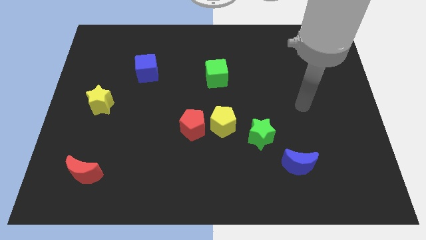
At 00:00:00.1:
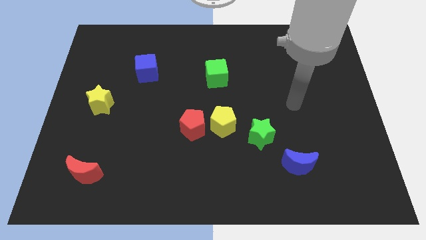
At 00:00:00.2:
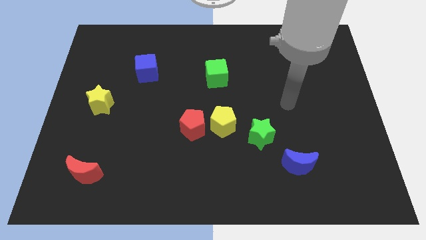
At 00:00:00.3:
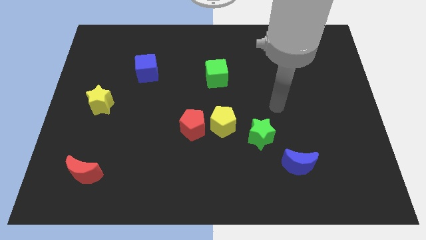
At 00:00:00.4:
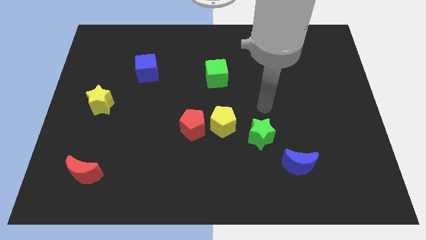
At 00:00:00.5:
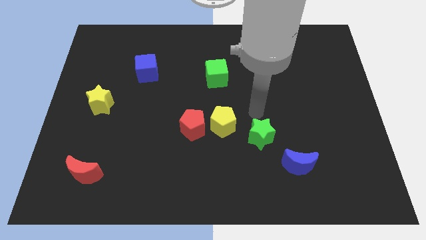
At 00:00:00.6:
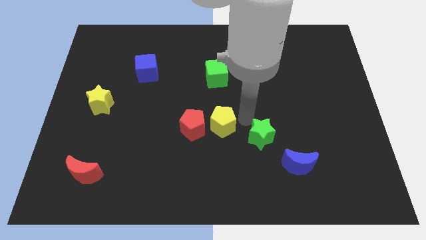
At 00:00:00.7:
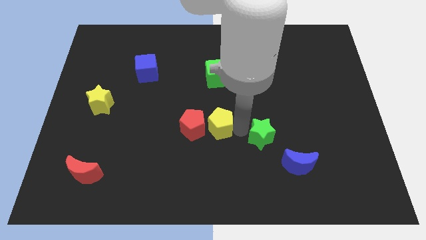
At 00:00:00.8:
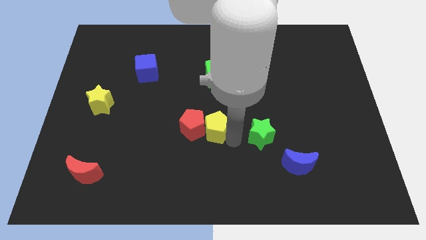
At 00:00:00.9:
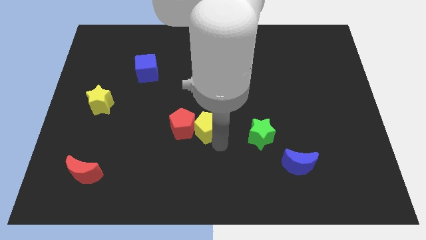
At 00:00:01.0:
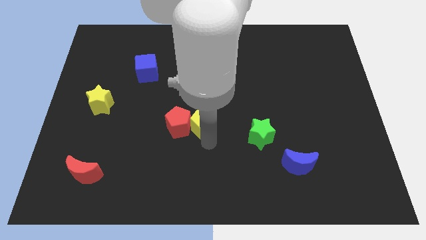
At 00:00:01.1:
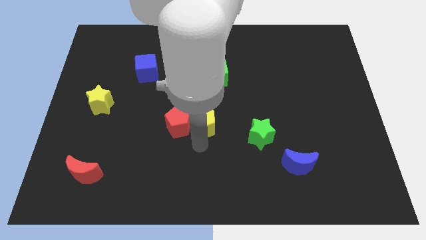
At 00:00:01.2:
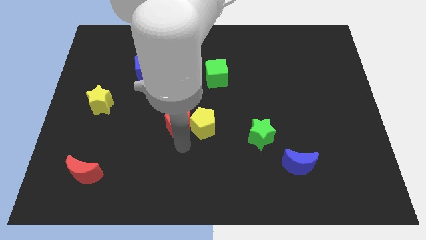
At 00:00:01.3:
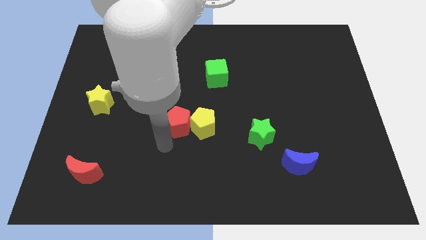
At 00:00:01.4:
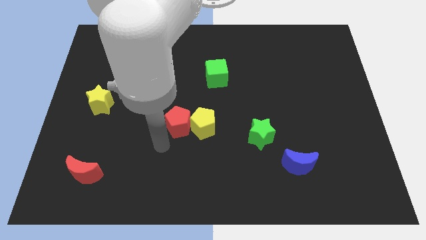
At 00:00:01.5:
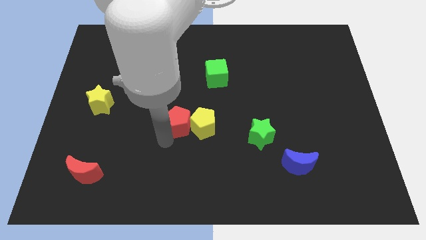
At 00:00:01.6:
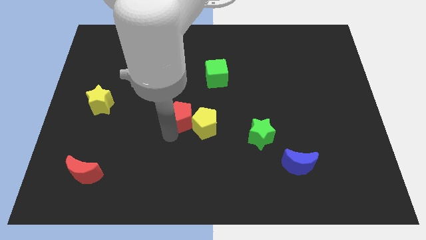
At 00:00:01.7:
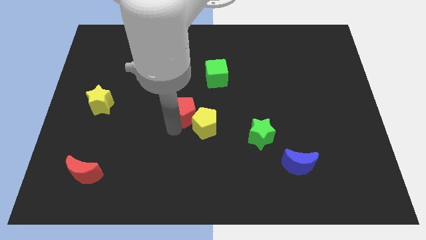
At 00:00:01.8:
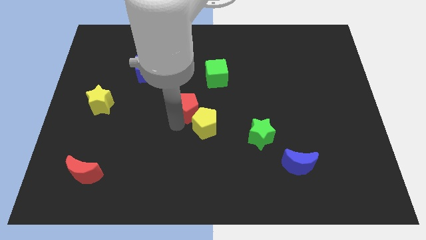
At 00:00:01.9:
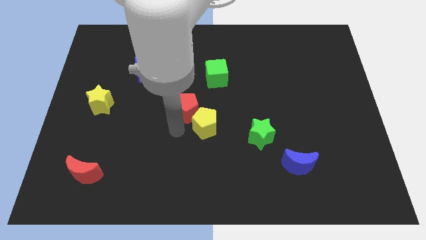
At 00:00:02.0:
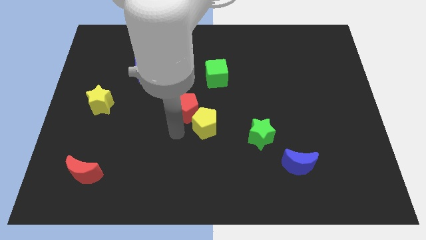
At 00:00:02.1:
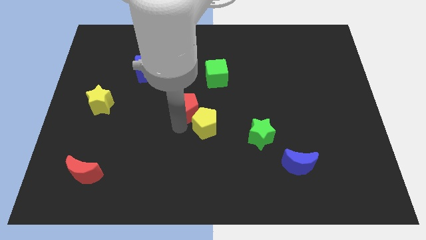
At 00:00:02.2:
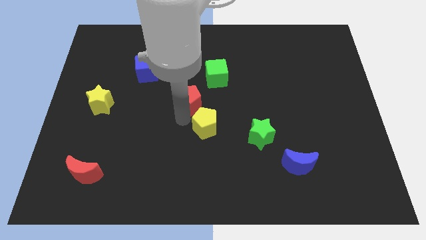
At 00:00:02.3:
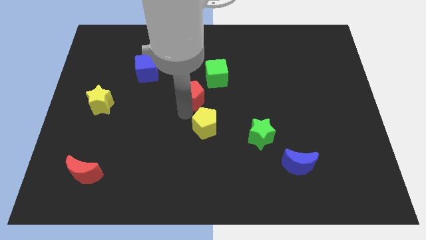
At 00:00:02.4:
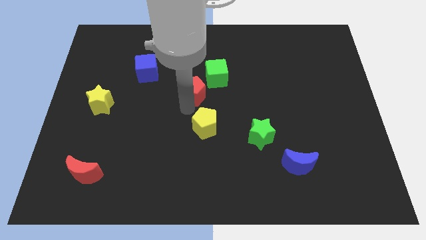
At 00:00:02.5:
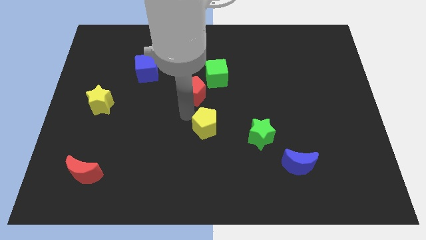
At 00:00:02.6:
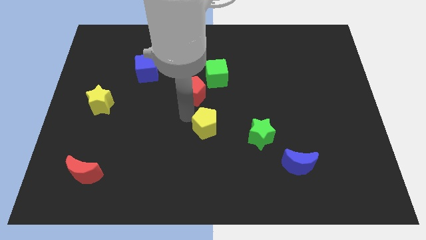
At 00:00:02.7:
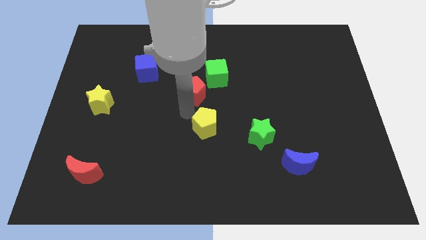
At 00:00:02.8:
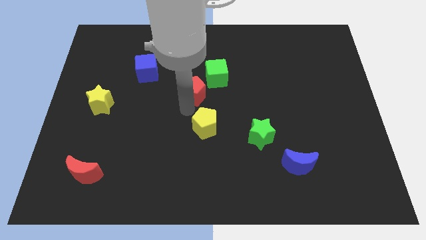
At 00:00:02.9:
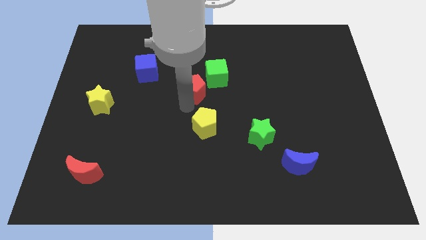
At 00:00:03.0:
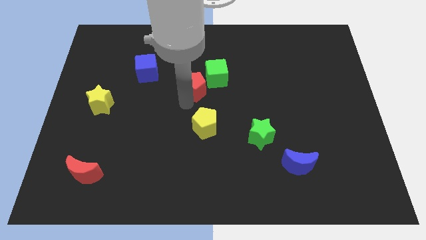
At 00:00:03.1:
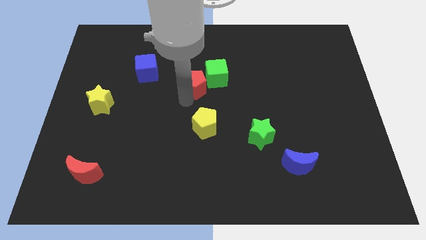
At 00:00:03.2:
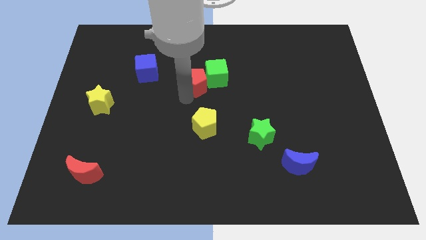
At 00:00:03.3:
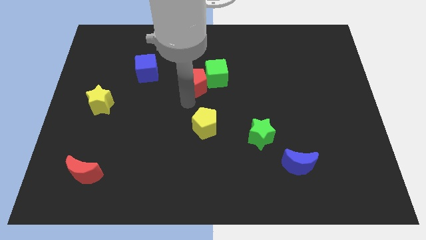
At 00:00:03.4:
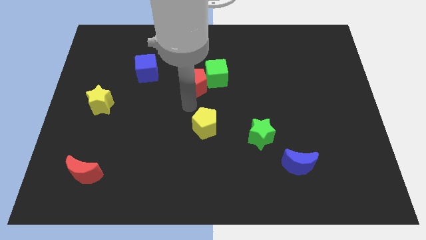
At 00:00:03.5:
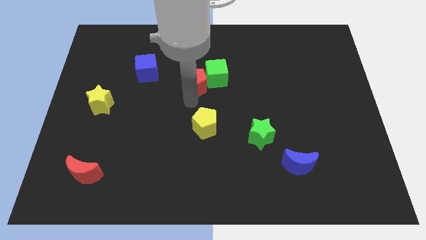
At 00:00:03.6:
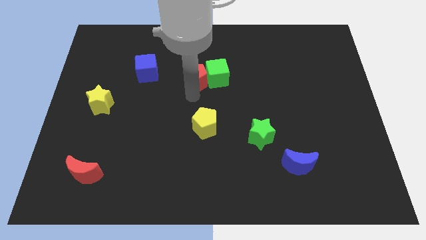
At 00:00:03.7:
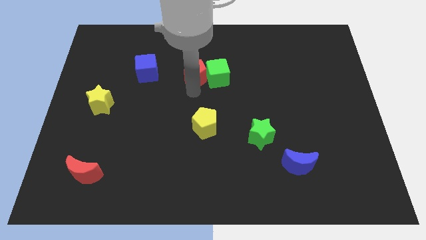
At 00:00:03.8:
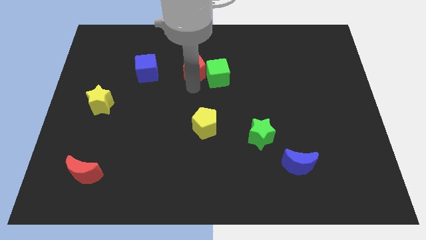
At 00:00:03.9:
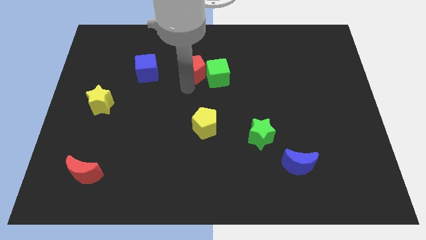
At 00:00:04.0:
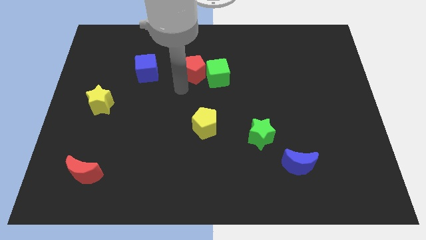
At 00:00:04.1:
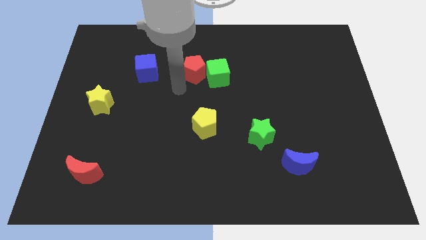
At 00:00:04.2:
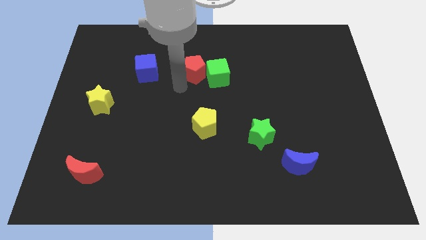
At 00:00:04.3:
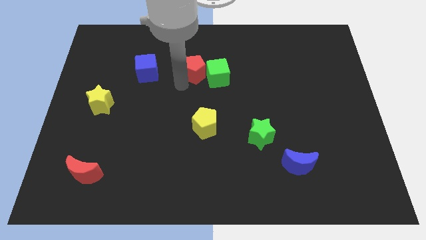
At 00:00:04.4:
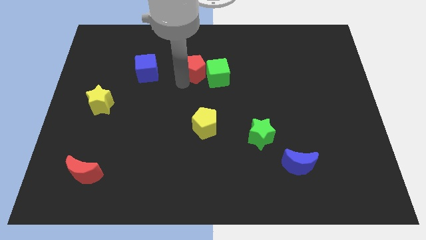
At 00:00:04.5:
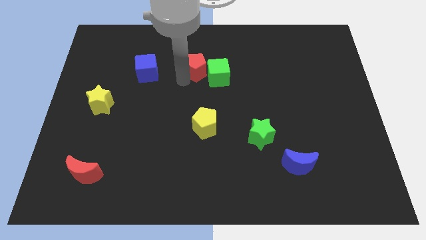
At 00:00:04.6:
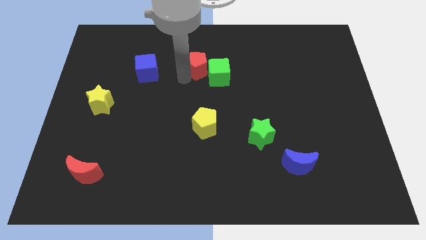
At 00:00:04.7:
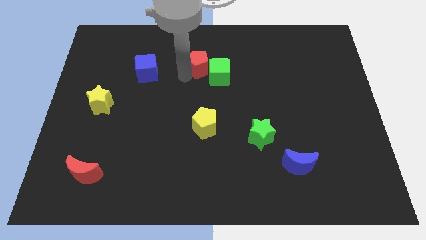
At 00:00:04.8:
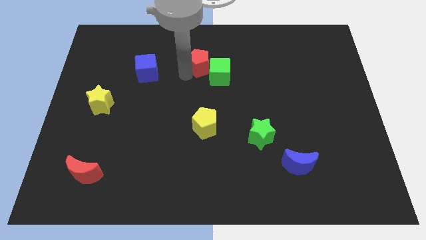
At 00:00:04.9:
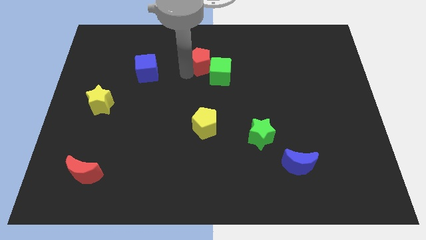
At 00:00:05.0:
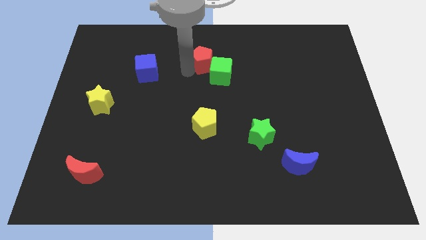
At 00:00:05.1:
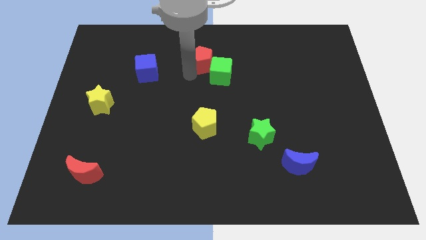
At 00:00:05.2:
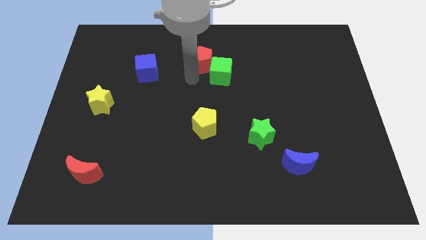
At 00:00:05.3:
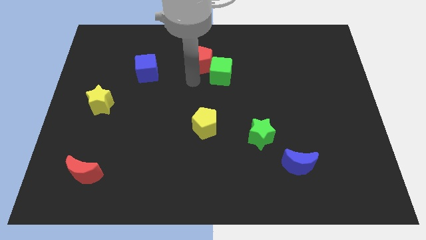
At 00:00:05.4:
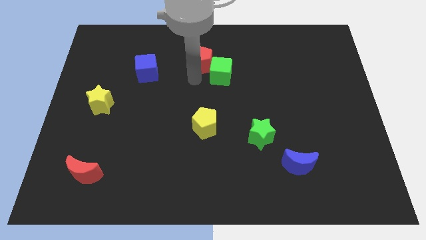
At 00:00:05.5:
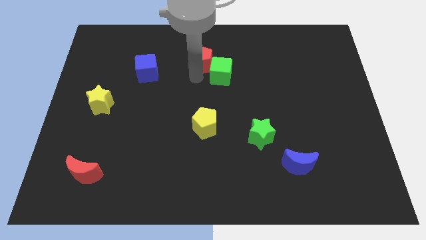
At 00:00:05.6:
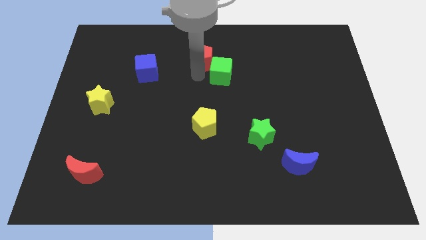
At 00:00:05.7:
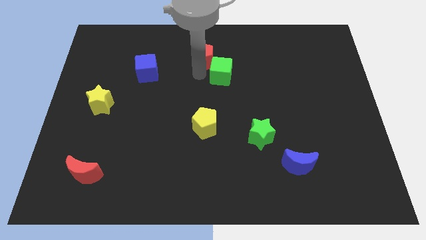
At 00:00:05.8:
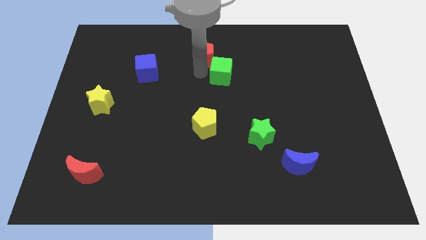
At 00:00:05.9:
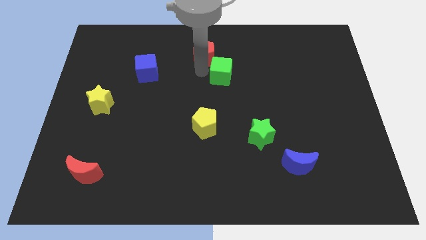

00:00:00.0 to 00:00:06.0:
move the red pentagon to the top side

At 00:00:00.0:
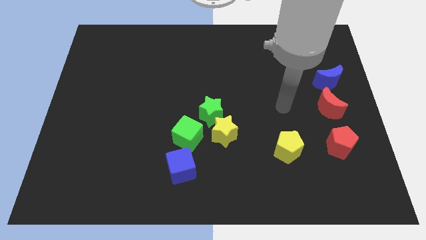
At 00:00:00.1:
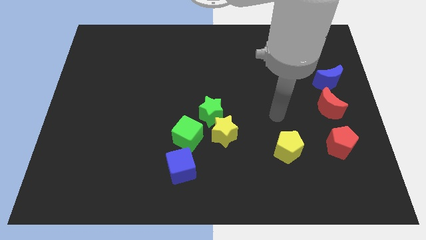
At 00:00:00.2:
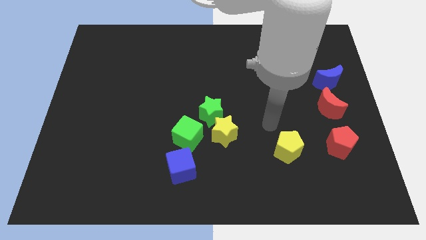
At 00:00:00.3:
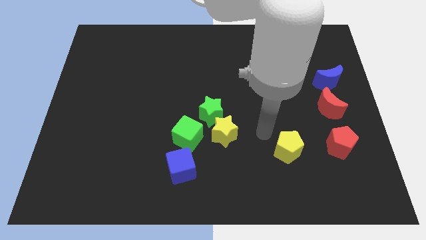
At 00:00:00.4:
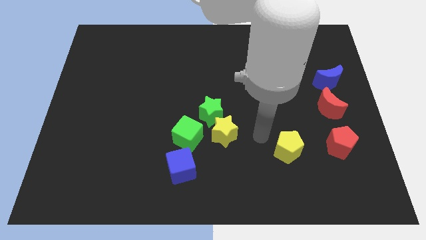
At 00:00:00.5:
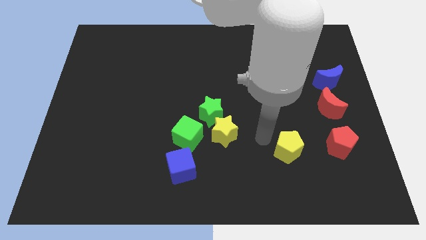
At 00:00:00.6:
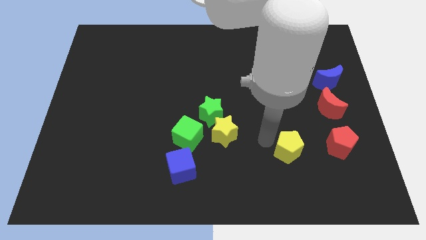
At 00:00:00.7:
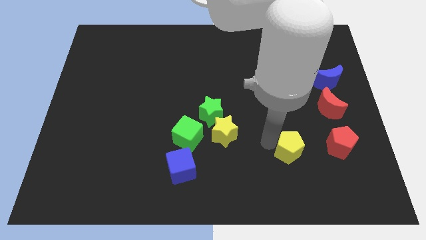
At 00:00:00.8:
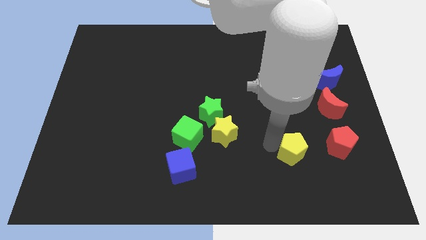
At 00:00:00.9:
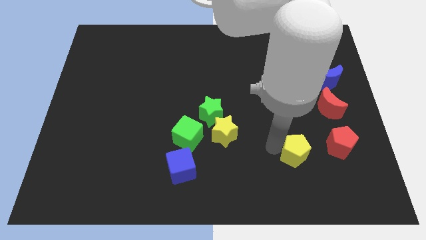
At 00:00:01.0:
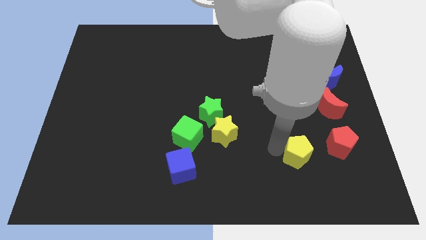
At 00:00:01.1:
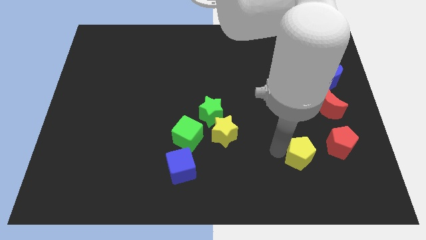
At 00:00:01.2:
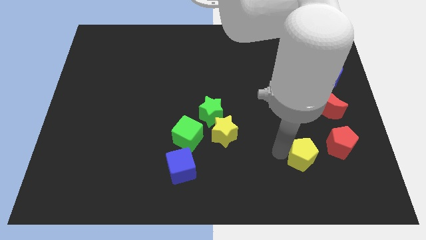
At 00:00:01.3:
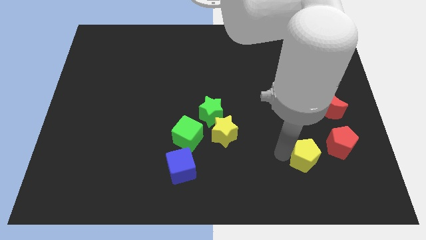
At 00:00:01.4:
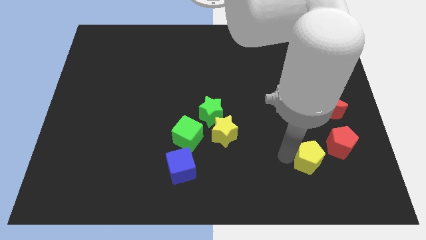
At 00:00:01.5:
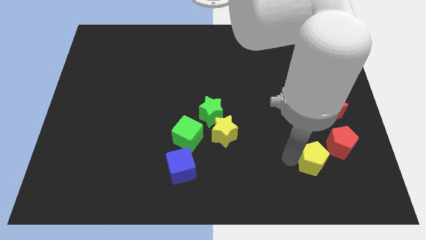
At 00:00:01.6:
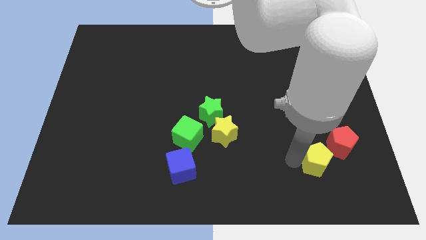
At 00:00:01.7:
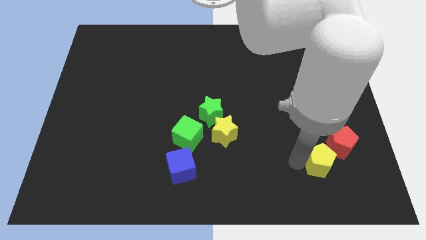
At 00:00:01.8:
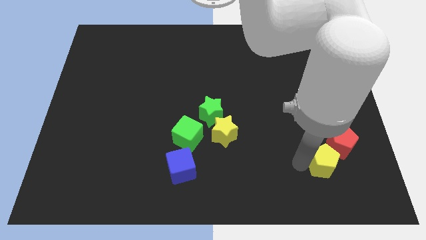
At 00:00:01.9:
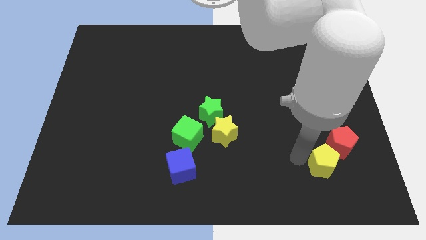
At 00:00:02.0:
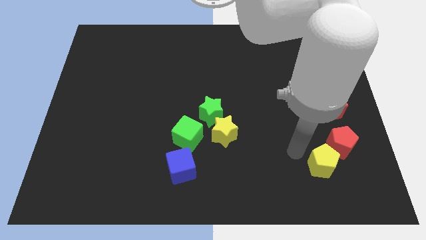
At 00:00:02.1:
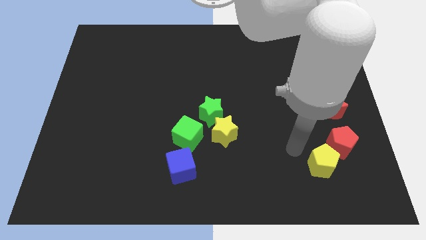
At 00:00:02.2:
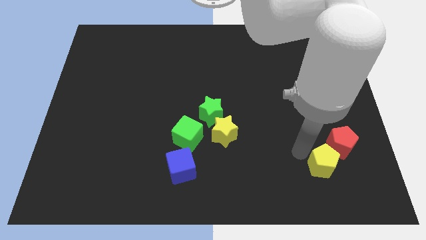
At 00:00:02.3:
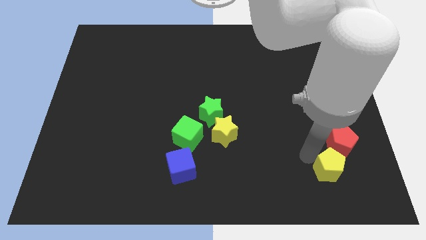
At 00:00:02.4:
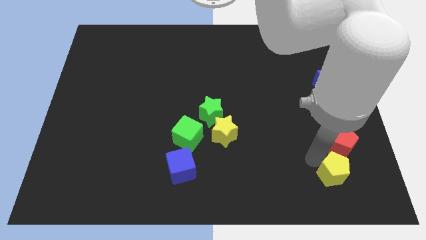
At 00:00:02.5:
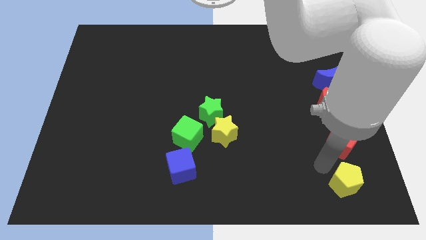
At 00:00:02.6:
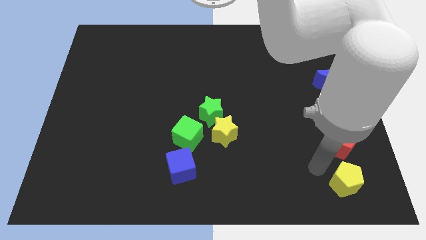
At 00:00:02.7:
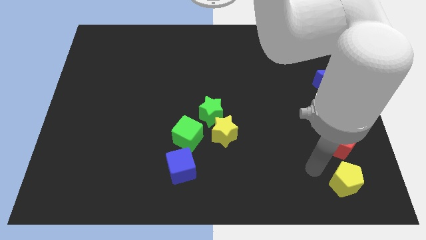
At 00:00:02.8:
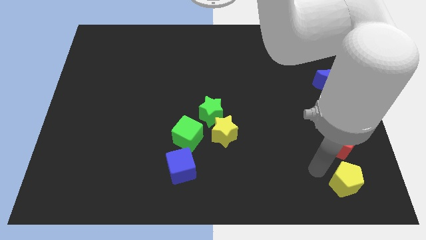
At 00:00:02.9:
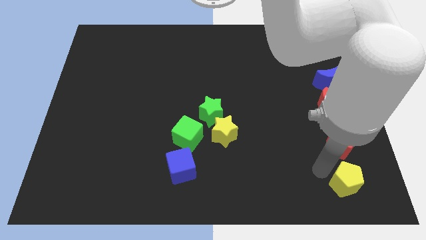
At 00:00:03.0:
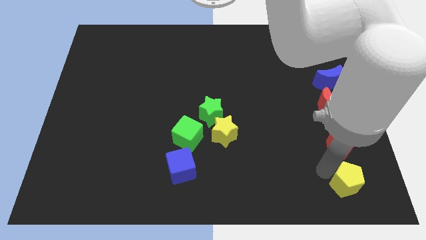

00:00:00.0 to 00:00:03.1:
push the yellow pentagon to the bottom right corner
